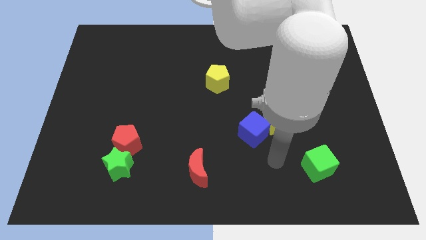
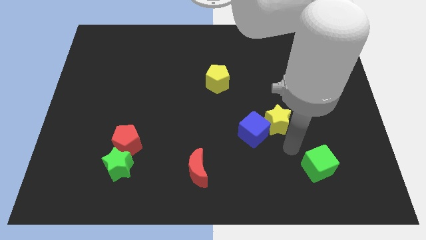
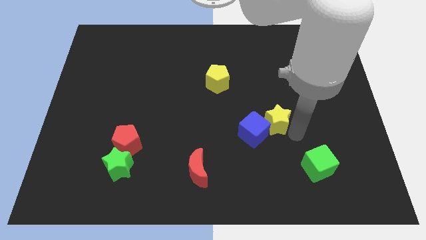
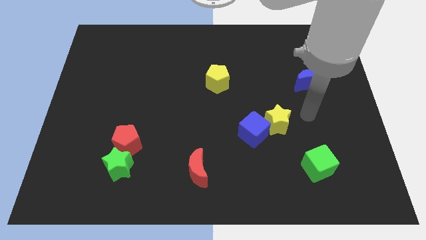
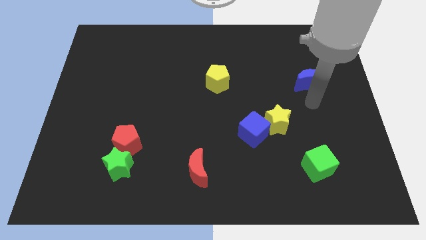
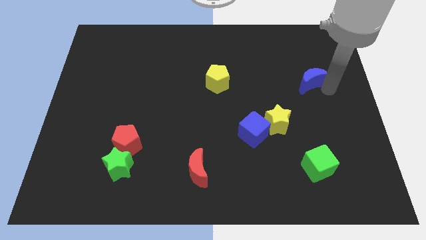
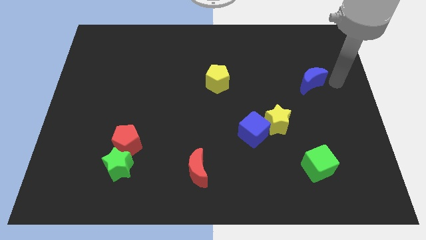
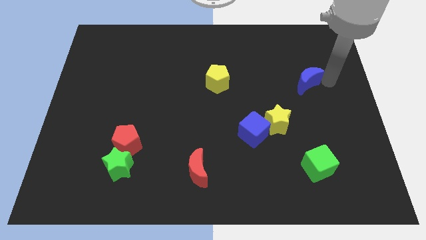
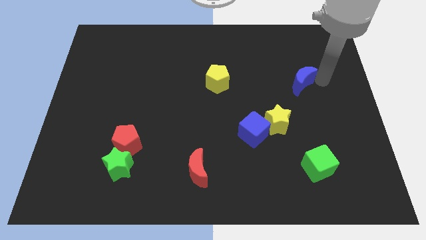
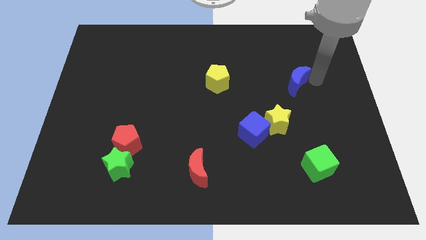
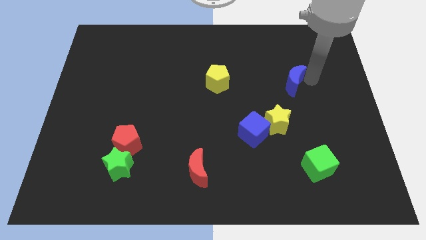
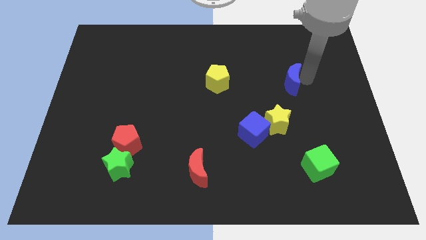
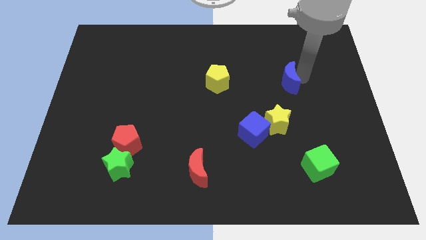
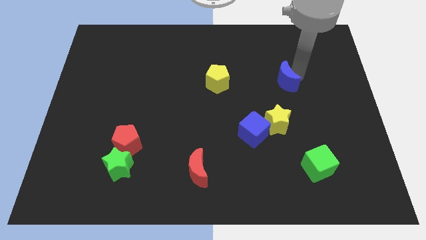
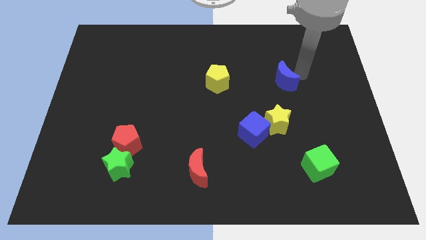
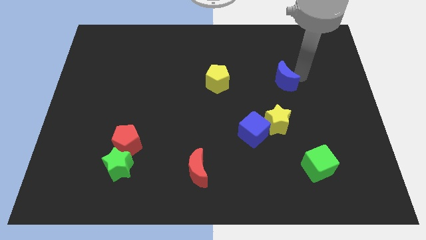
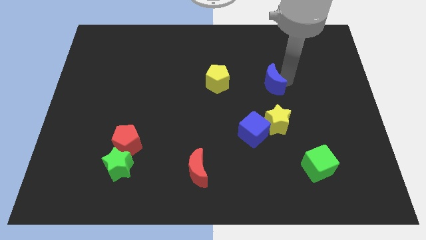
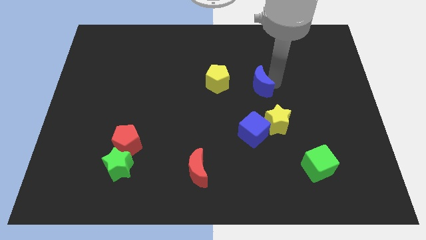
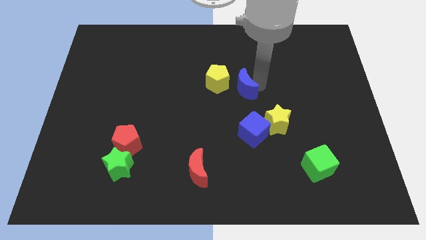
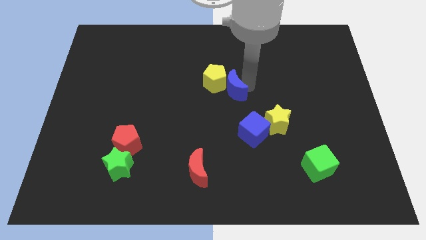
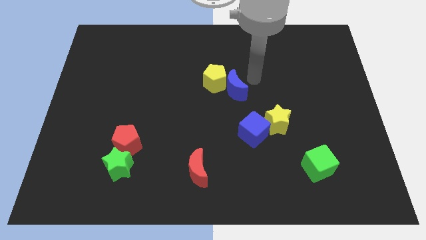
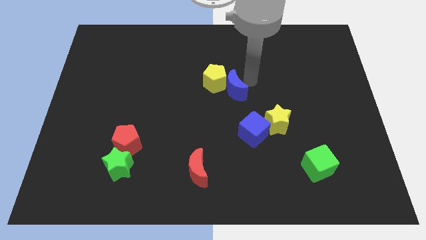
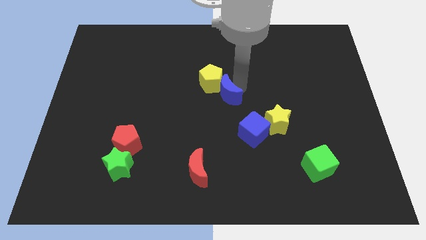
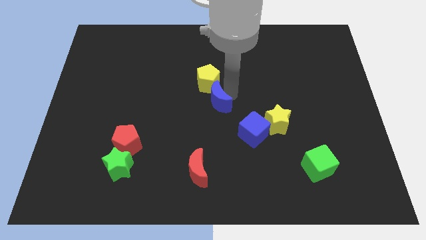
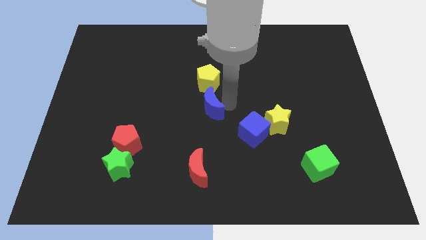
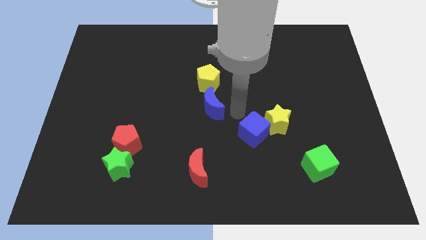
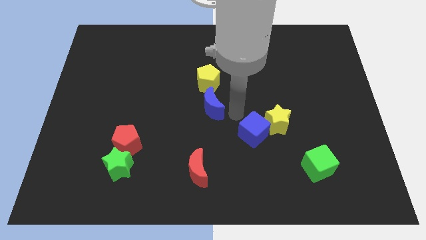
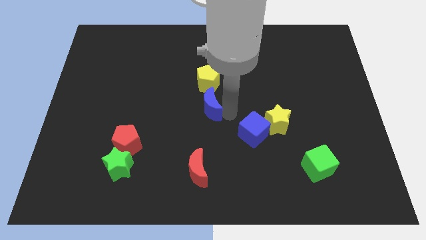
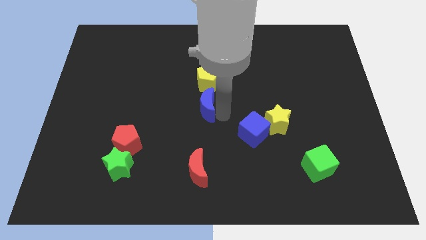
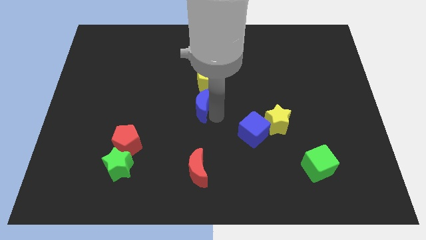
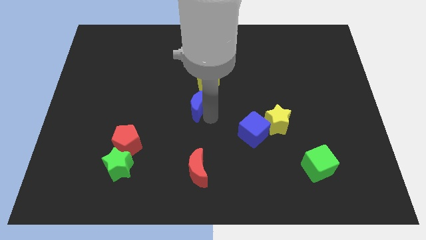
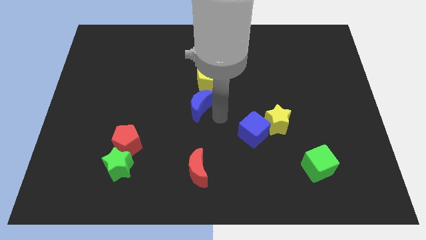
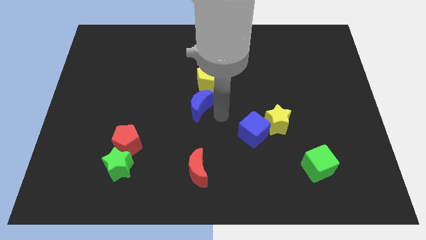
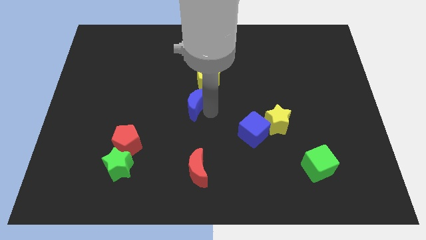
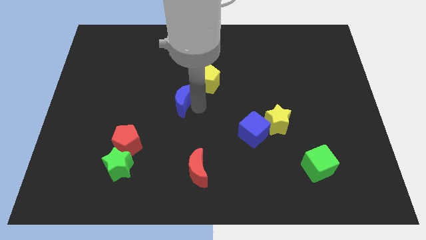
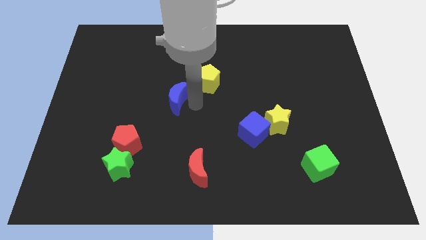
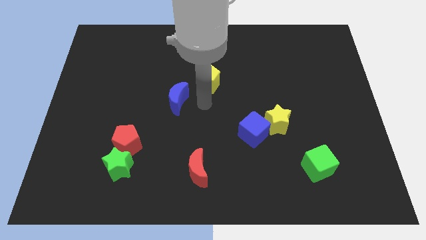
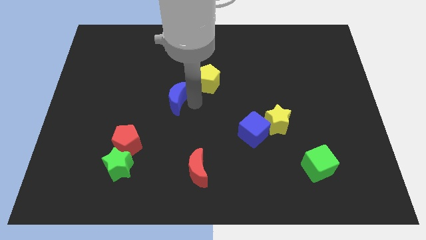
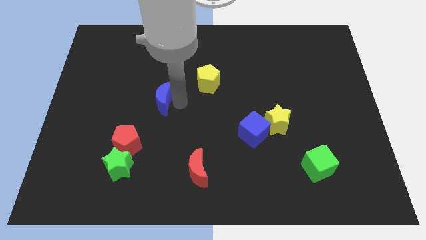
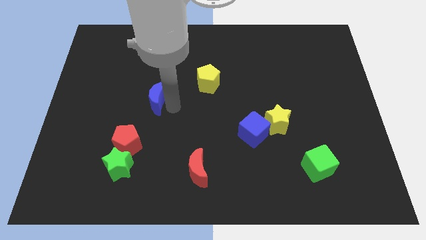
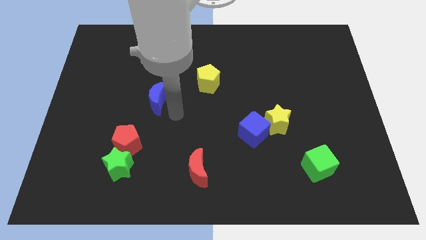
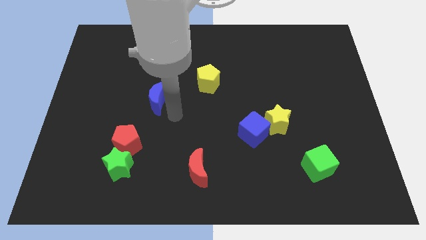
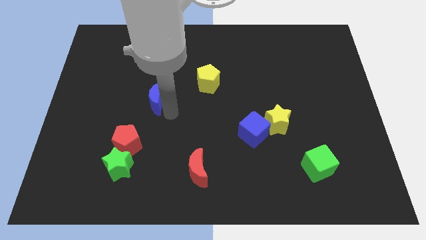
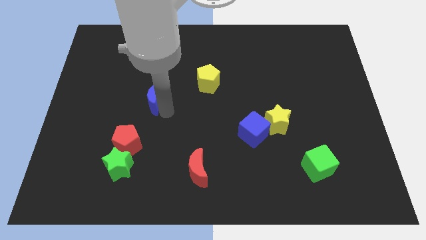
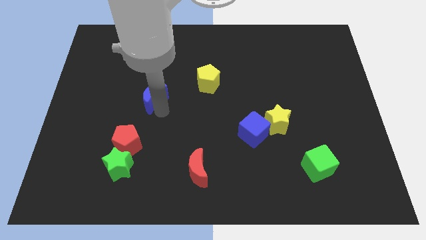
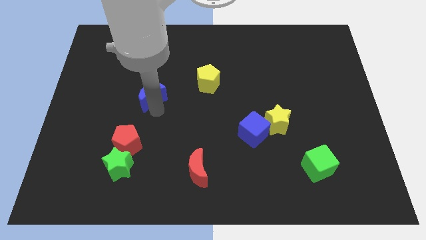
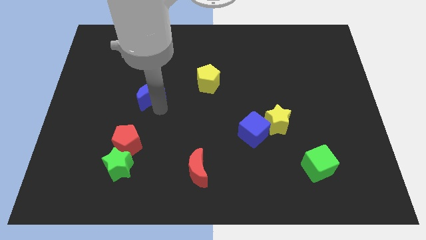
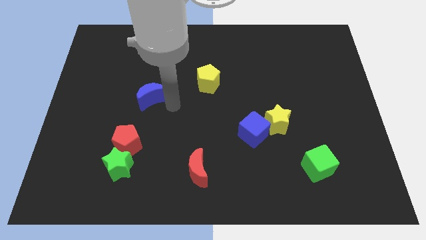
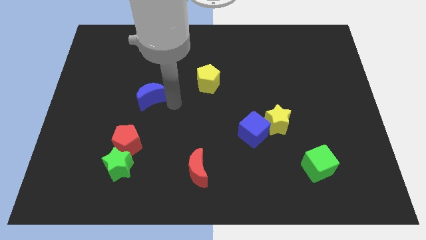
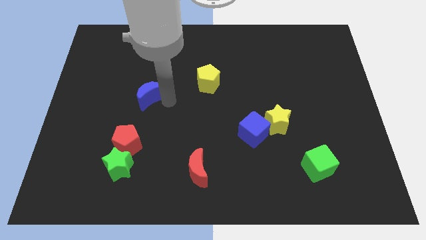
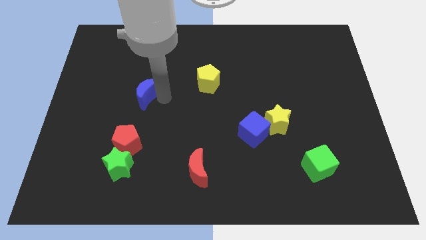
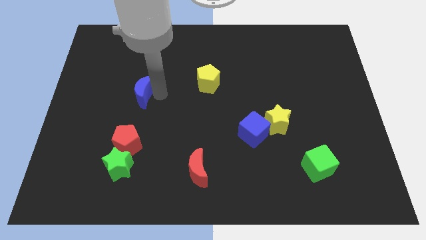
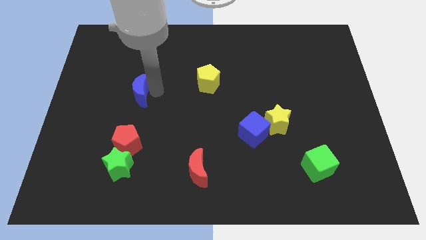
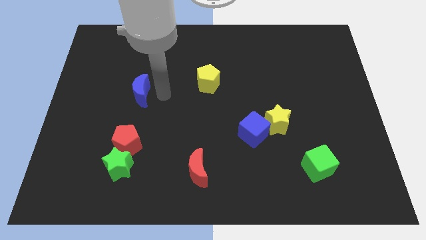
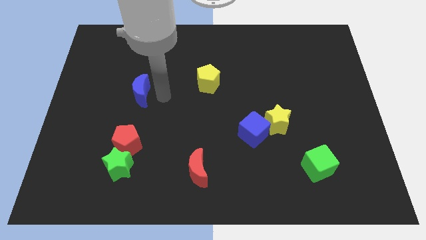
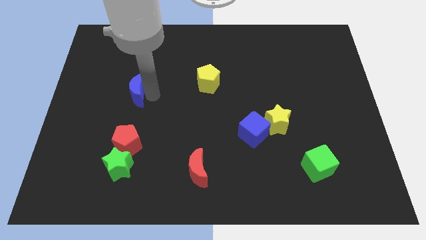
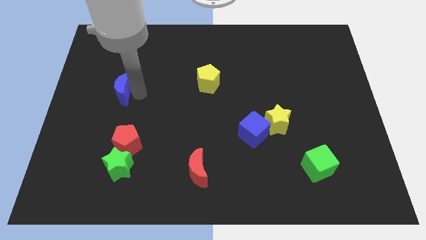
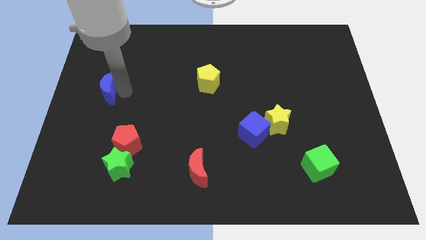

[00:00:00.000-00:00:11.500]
slide the blue moon to the center left

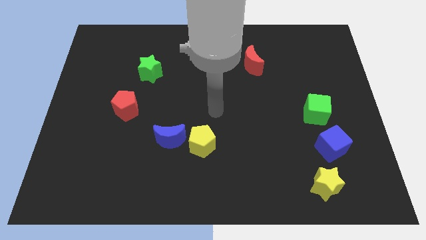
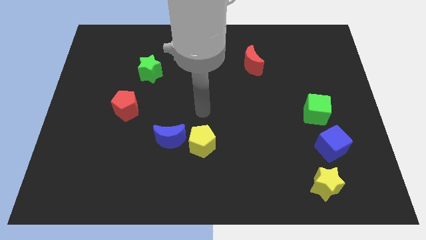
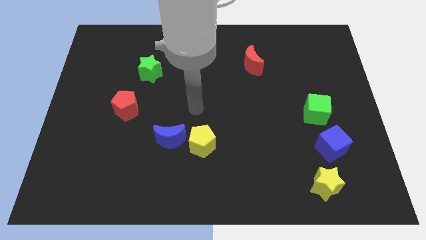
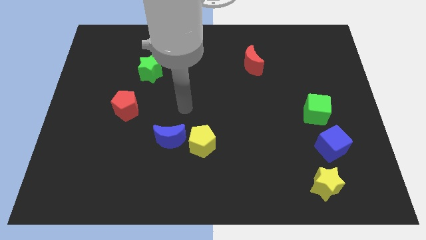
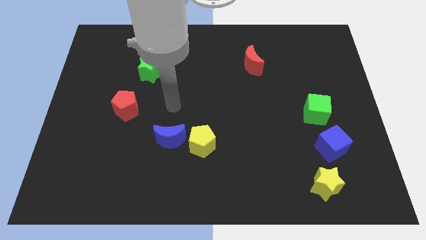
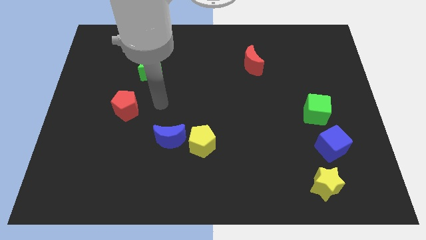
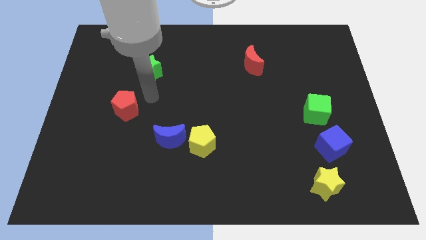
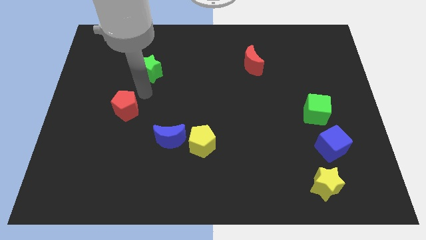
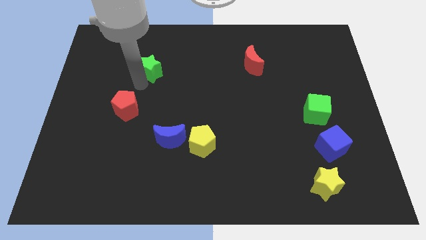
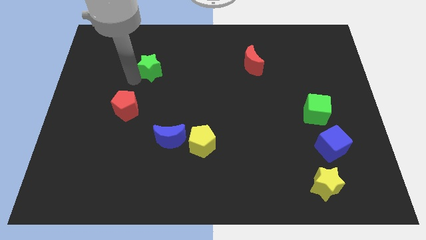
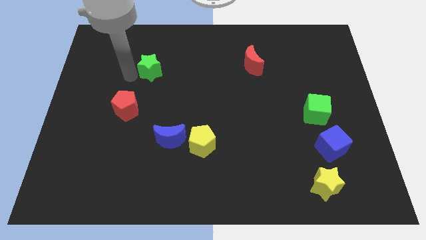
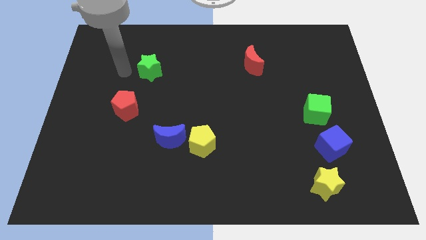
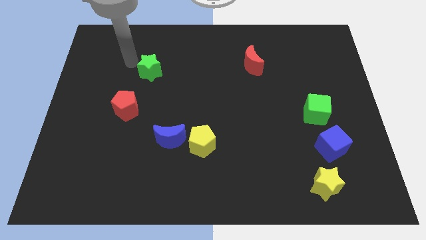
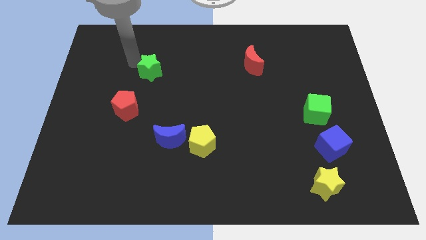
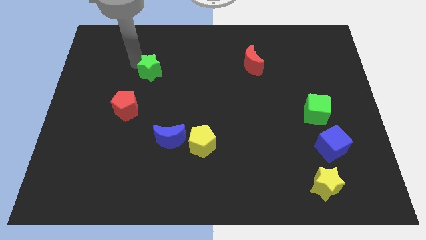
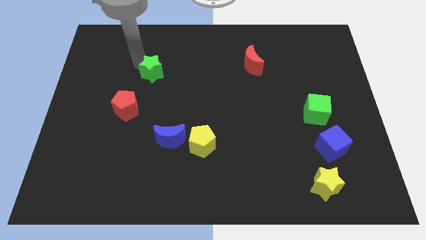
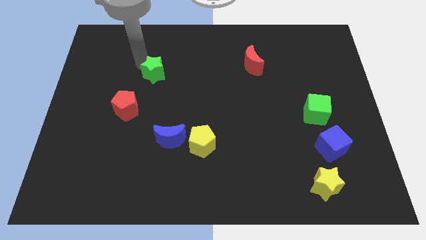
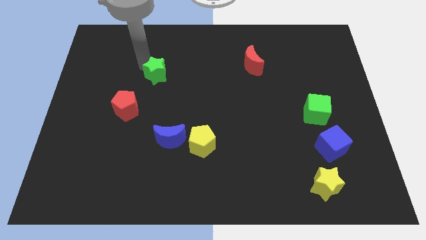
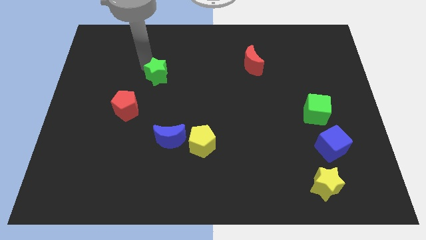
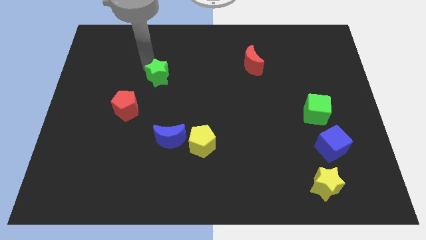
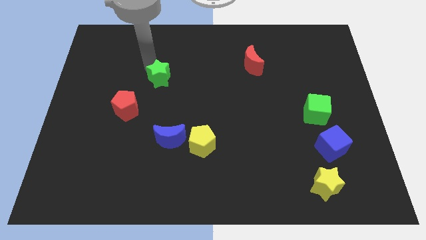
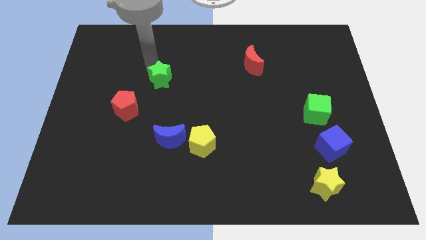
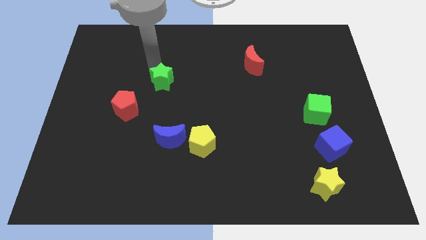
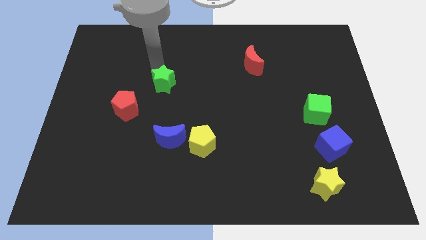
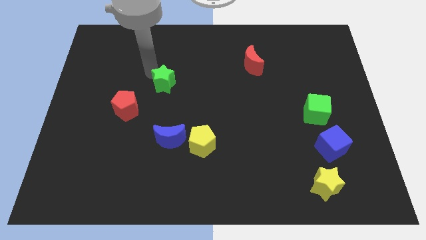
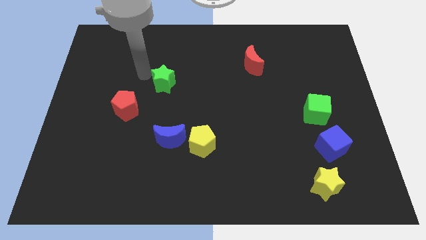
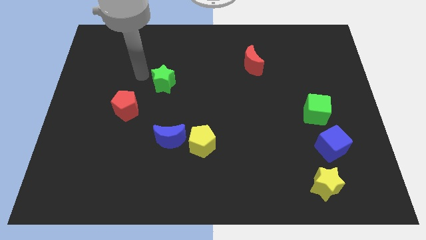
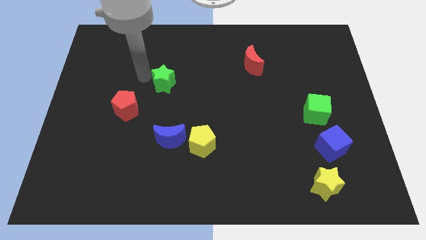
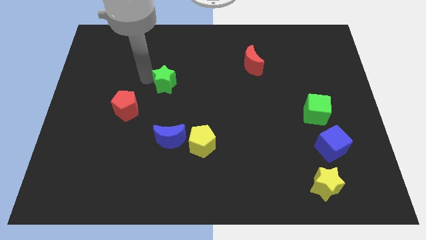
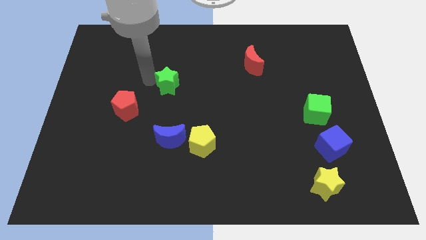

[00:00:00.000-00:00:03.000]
put the green star to the center of the board
